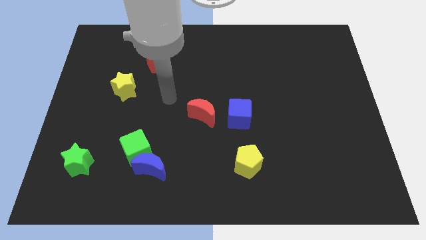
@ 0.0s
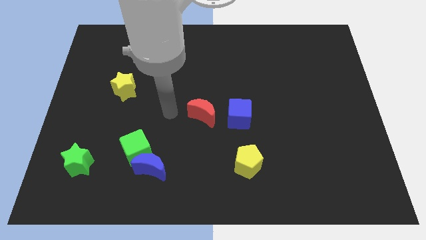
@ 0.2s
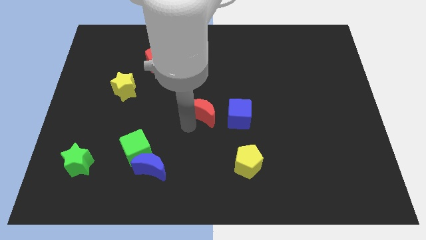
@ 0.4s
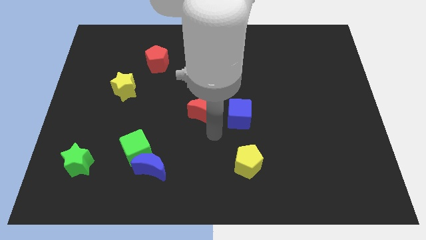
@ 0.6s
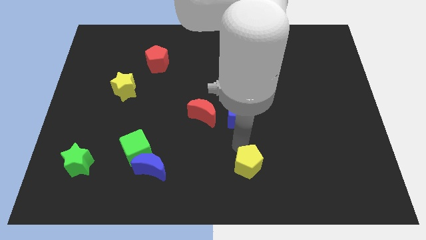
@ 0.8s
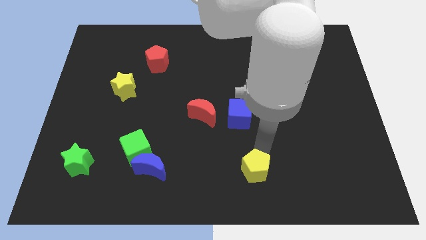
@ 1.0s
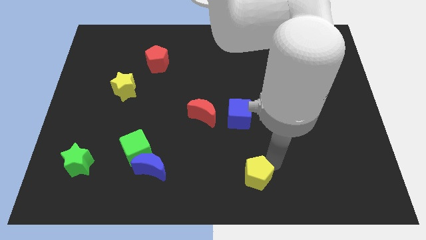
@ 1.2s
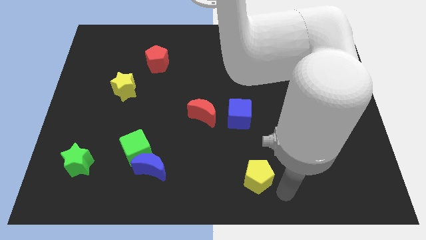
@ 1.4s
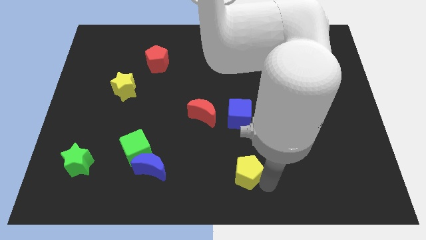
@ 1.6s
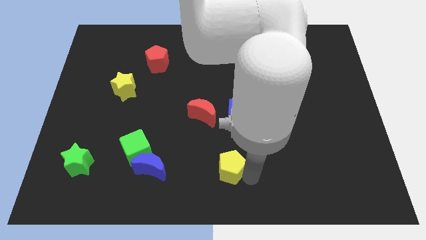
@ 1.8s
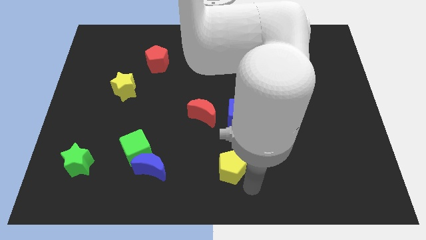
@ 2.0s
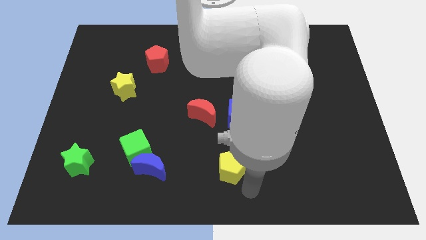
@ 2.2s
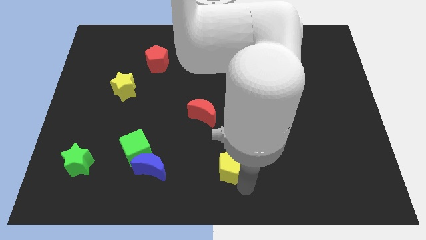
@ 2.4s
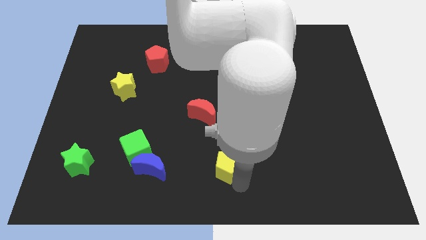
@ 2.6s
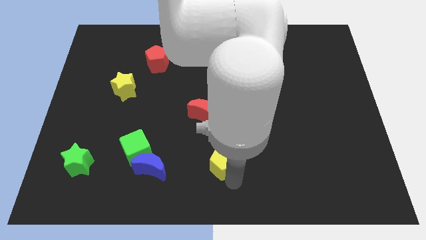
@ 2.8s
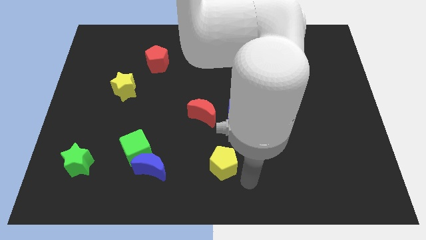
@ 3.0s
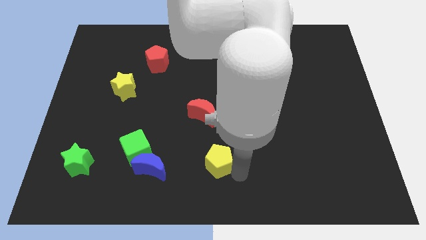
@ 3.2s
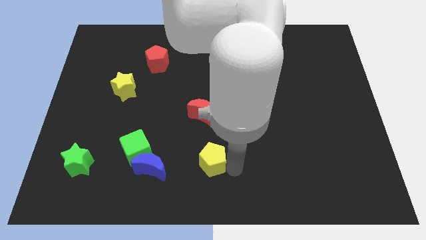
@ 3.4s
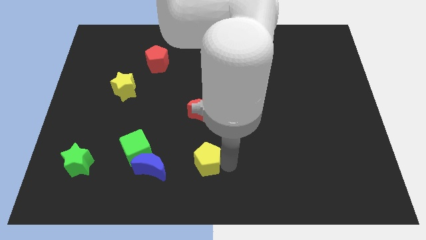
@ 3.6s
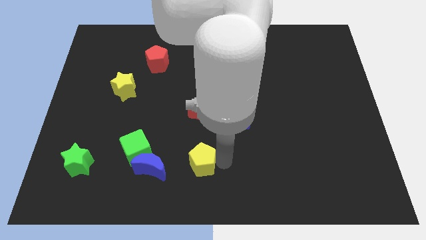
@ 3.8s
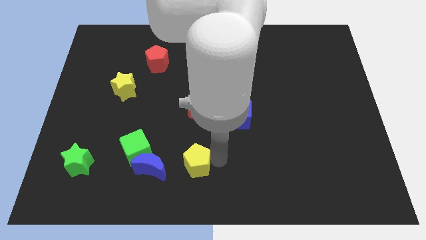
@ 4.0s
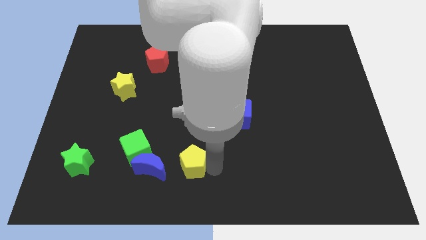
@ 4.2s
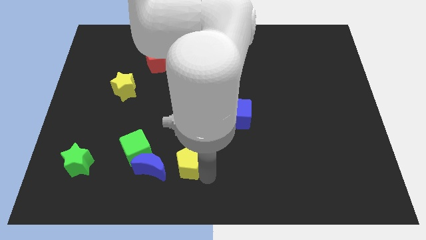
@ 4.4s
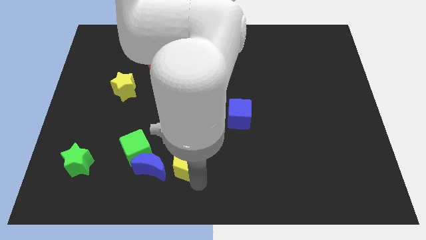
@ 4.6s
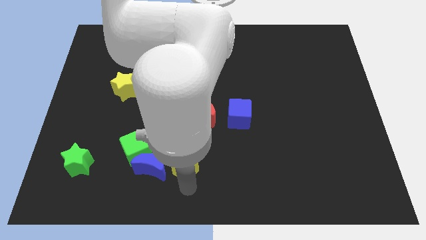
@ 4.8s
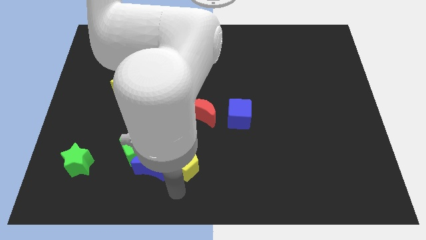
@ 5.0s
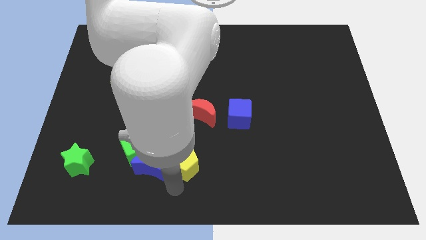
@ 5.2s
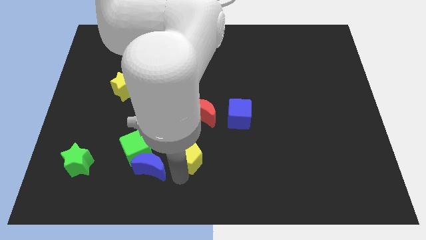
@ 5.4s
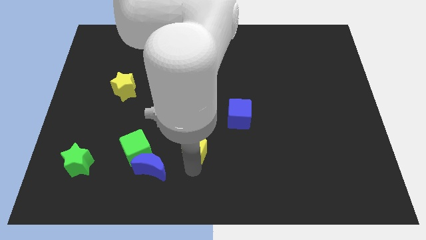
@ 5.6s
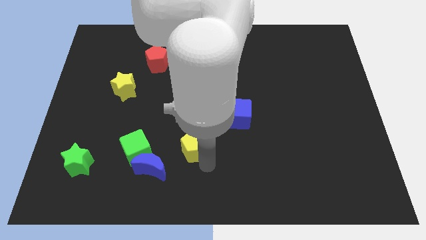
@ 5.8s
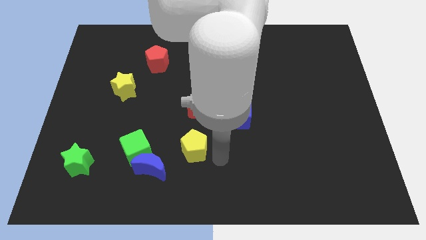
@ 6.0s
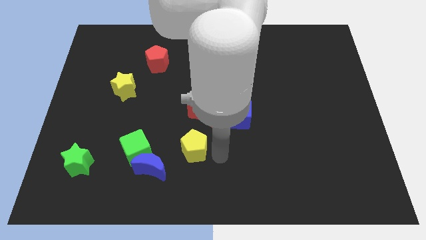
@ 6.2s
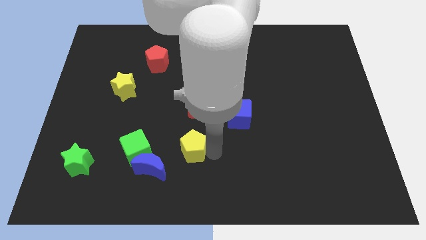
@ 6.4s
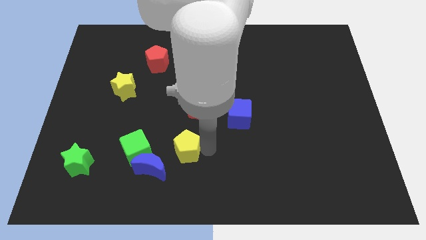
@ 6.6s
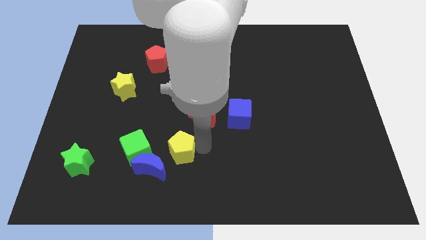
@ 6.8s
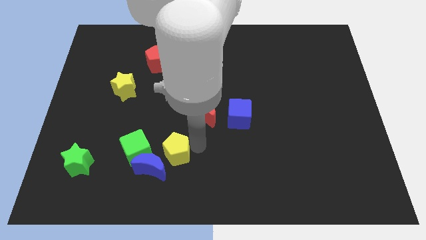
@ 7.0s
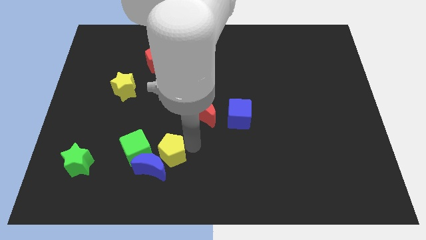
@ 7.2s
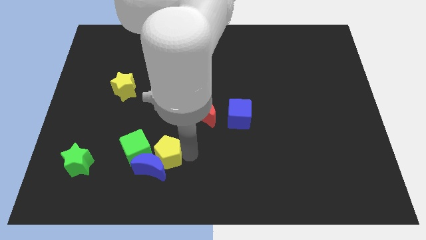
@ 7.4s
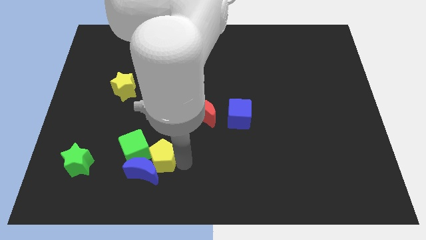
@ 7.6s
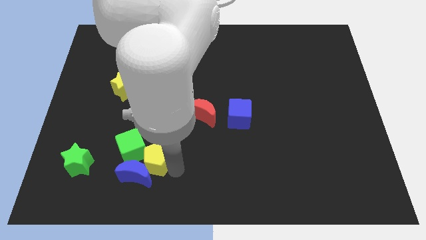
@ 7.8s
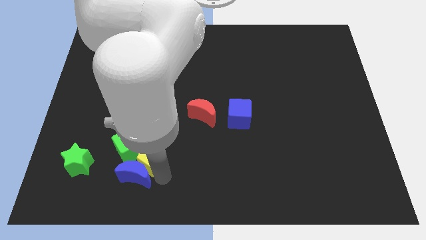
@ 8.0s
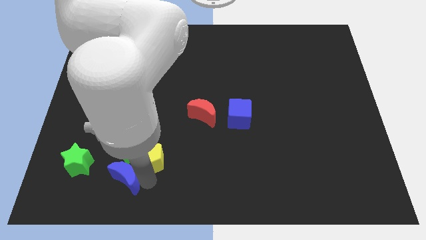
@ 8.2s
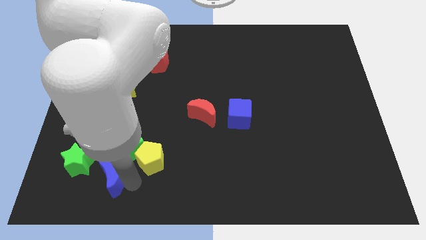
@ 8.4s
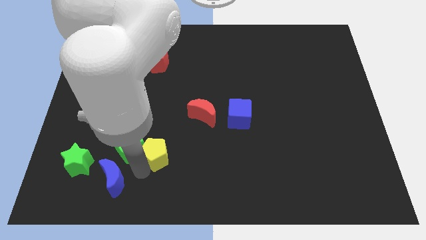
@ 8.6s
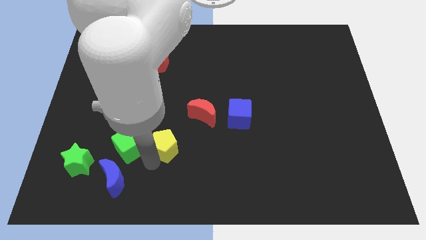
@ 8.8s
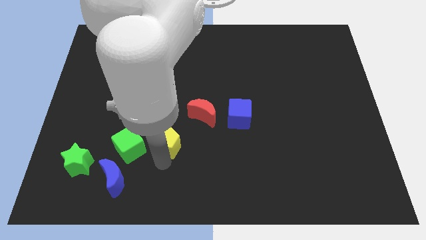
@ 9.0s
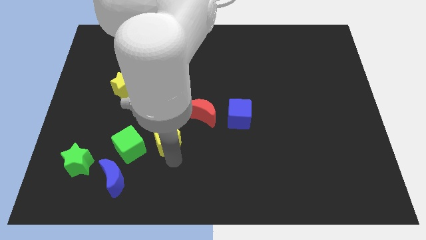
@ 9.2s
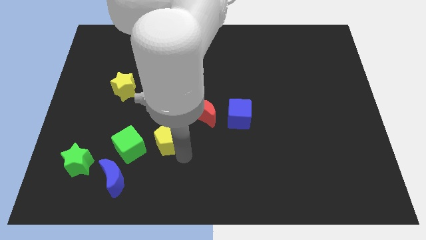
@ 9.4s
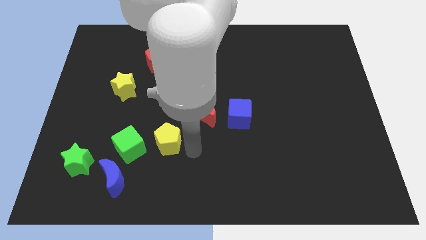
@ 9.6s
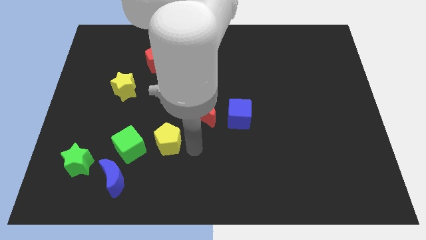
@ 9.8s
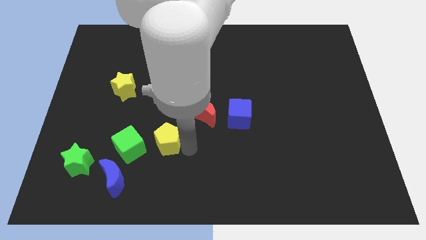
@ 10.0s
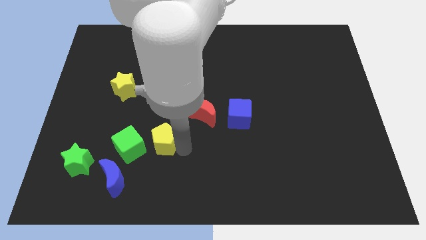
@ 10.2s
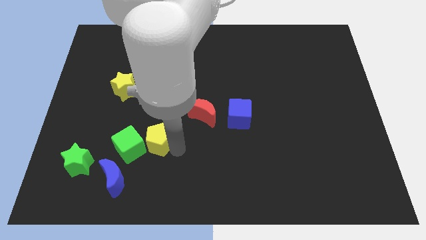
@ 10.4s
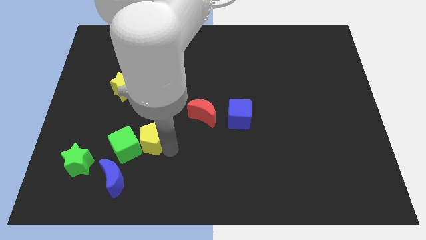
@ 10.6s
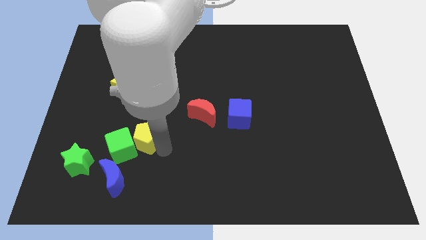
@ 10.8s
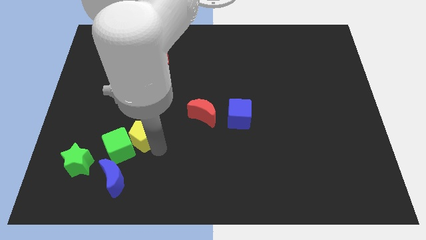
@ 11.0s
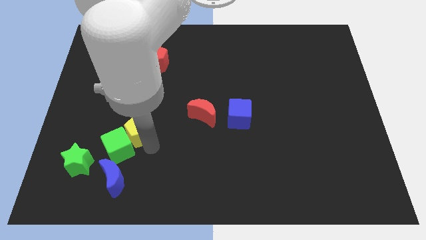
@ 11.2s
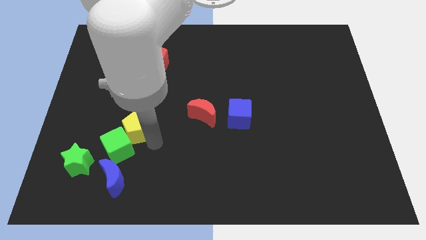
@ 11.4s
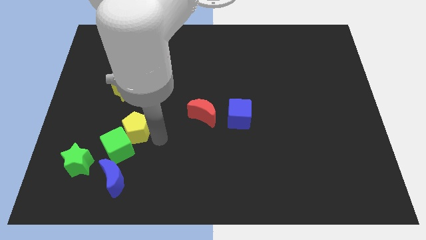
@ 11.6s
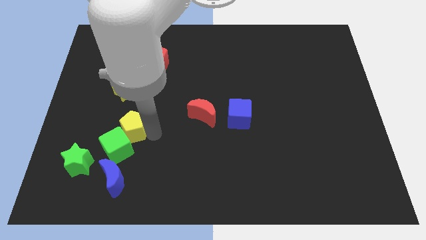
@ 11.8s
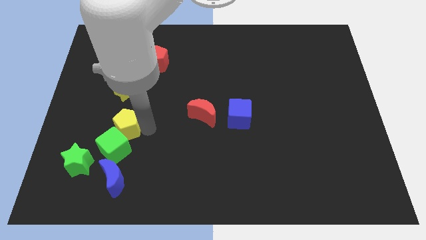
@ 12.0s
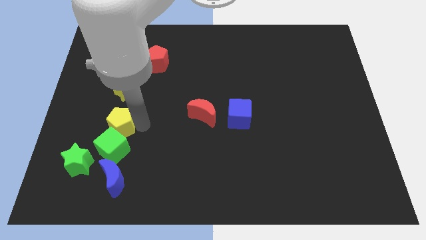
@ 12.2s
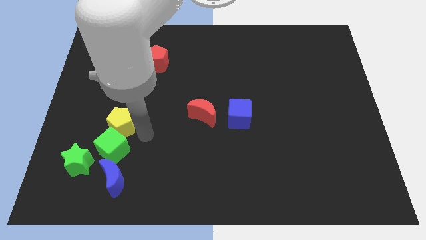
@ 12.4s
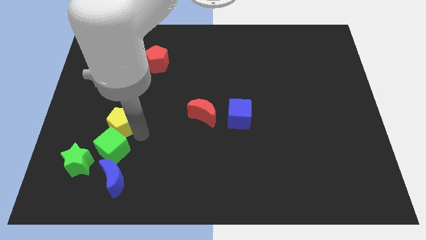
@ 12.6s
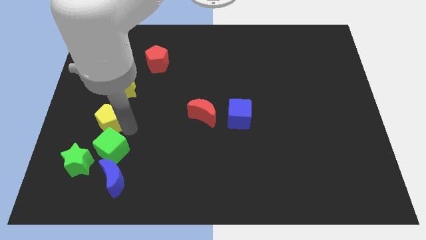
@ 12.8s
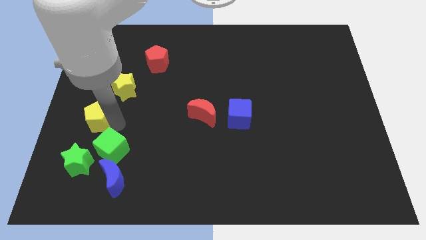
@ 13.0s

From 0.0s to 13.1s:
move the yellow pentagon to the center left
